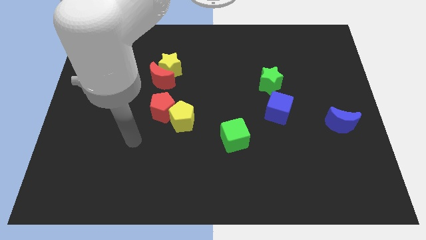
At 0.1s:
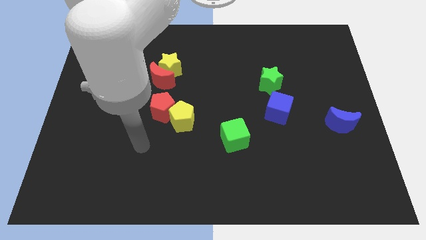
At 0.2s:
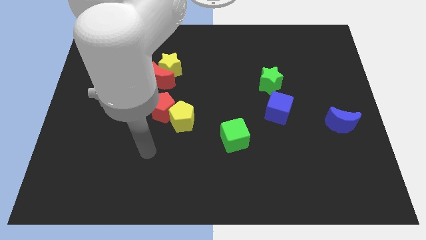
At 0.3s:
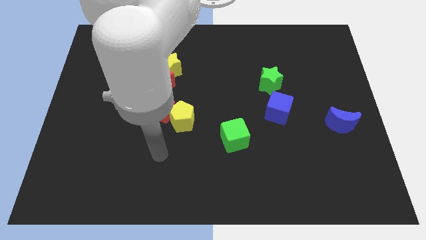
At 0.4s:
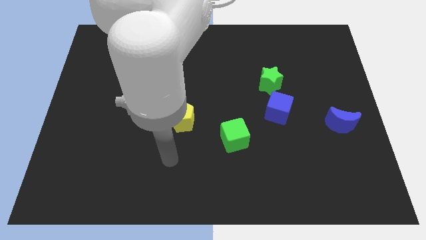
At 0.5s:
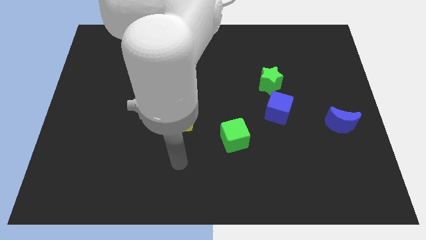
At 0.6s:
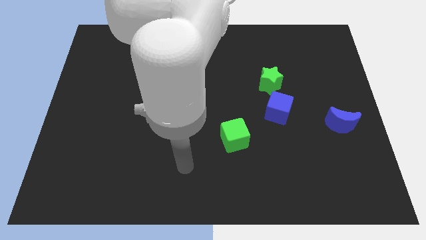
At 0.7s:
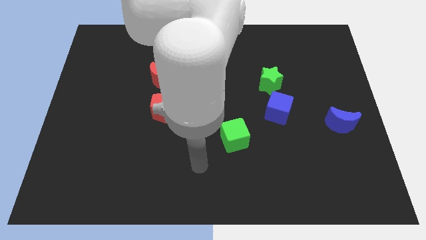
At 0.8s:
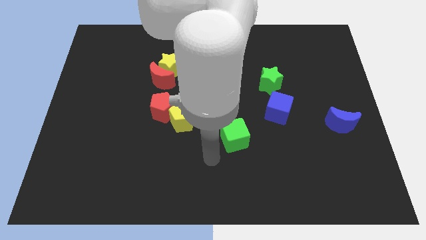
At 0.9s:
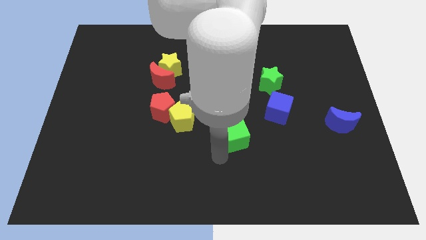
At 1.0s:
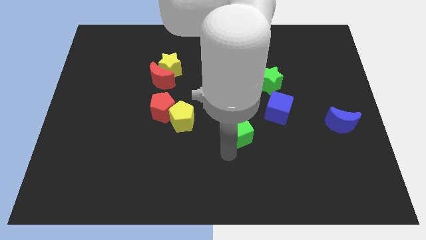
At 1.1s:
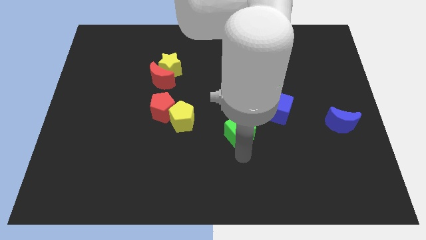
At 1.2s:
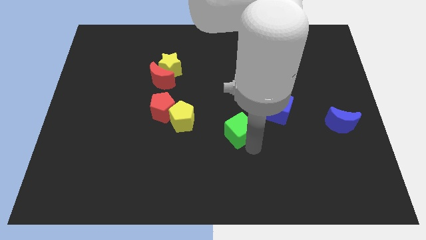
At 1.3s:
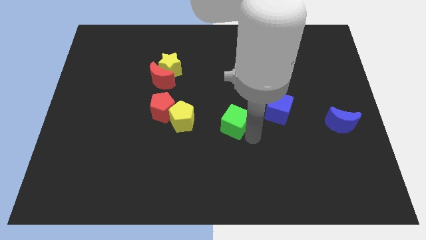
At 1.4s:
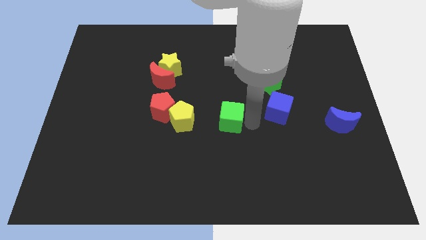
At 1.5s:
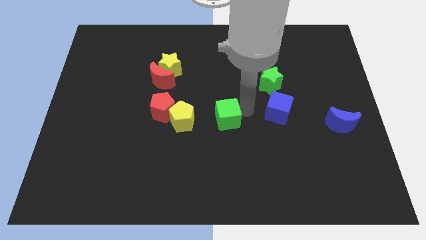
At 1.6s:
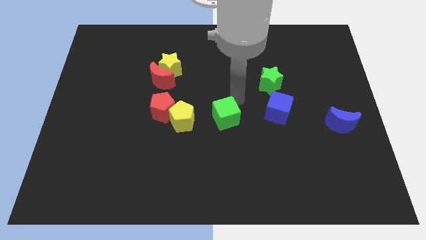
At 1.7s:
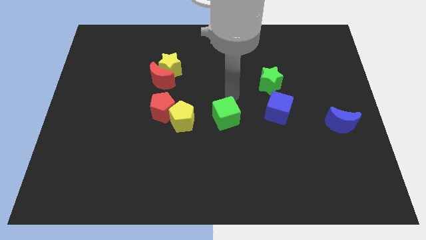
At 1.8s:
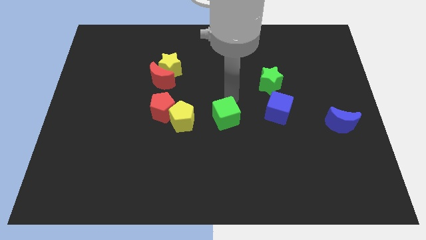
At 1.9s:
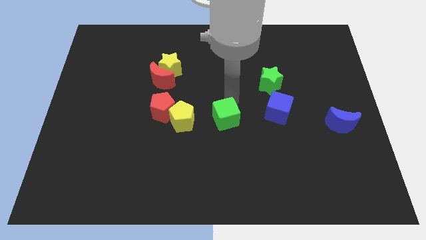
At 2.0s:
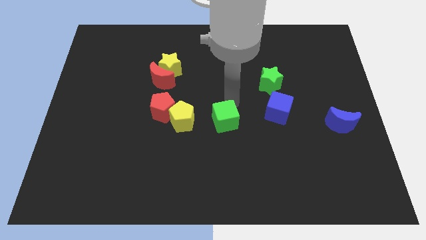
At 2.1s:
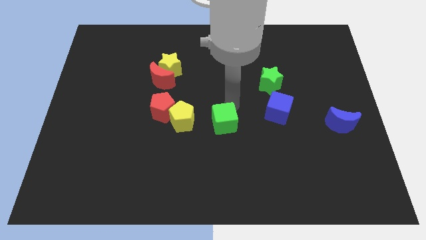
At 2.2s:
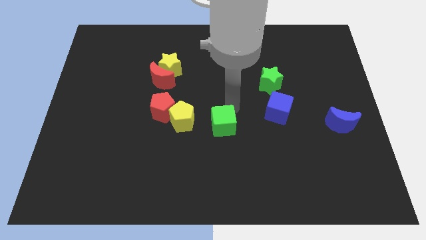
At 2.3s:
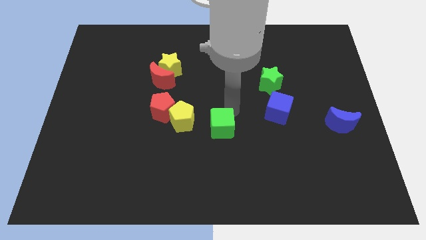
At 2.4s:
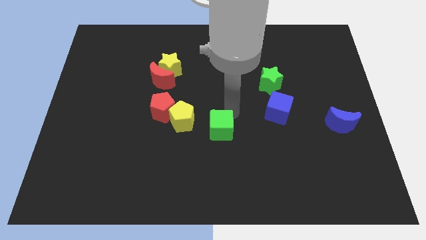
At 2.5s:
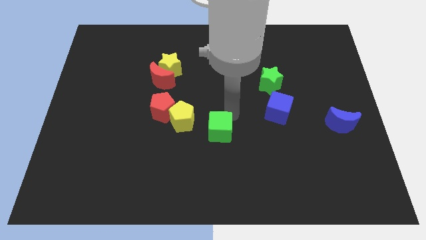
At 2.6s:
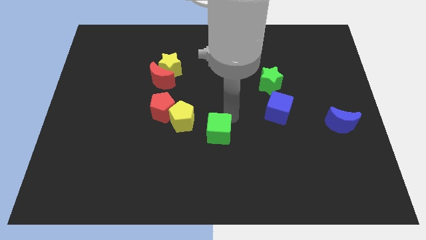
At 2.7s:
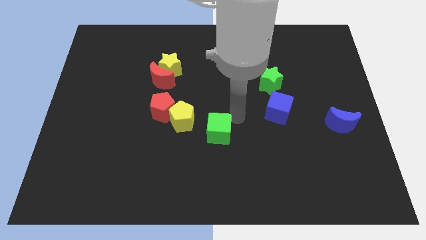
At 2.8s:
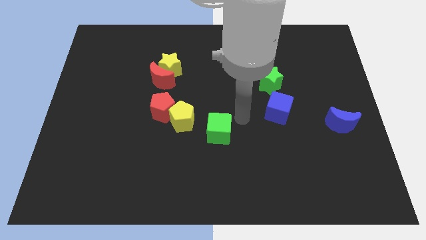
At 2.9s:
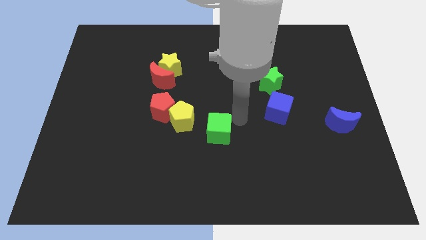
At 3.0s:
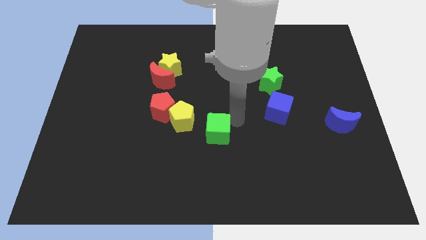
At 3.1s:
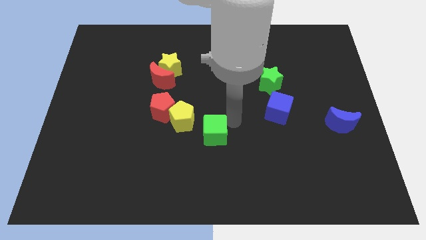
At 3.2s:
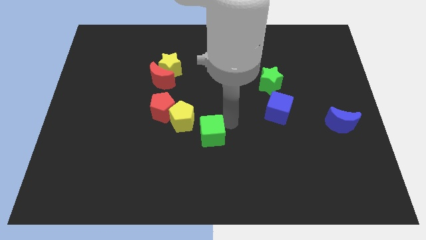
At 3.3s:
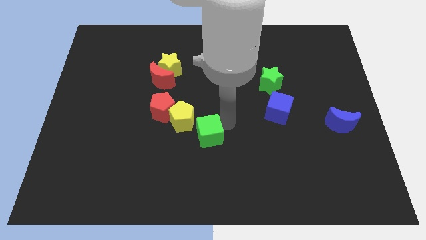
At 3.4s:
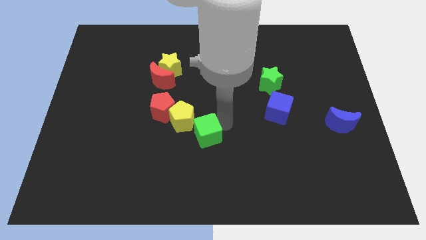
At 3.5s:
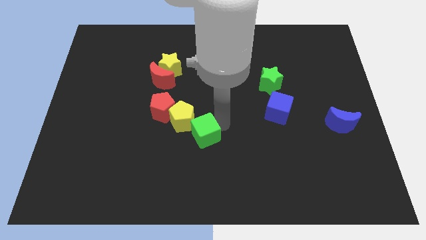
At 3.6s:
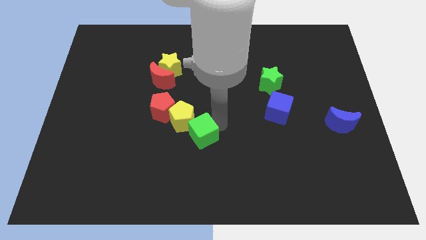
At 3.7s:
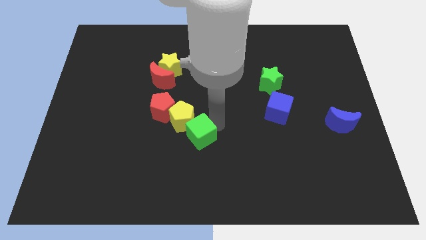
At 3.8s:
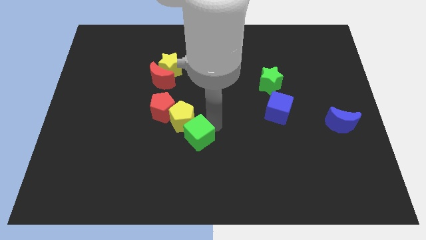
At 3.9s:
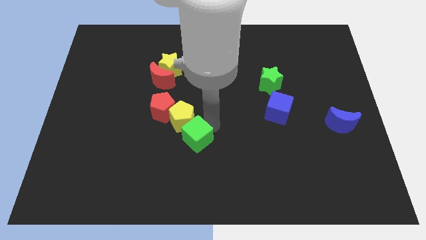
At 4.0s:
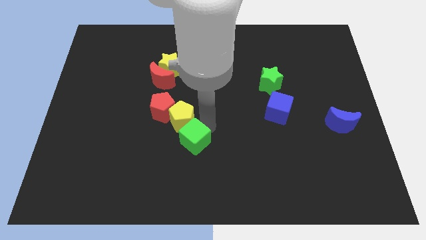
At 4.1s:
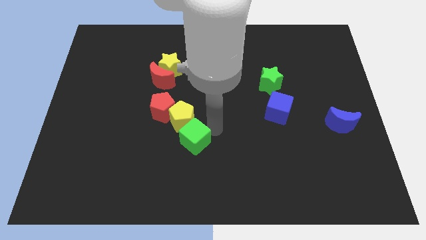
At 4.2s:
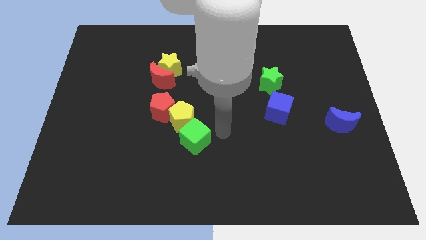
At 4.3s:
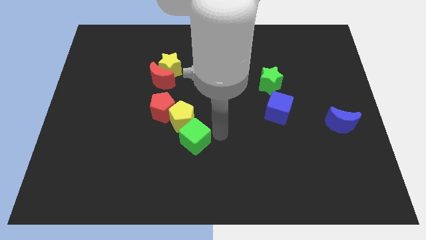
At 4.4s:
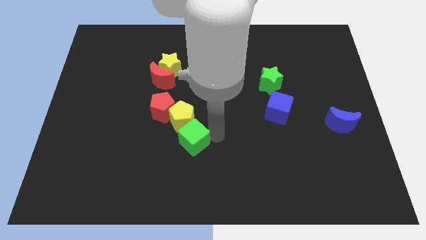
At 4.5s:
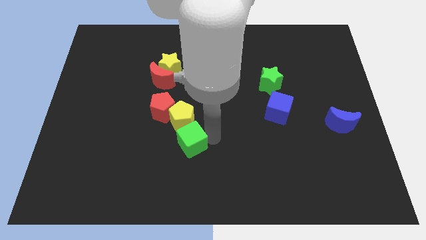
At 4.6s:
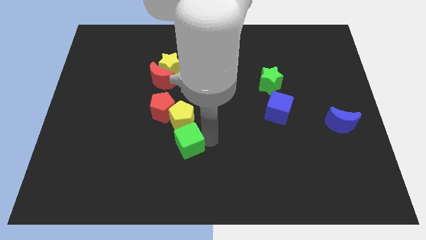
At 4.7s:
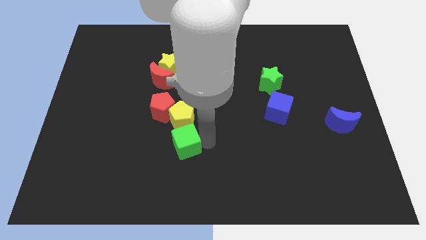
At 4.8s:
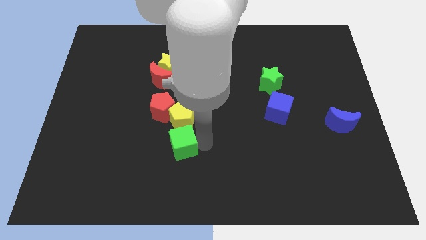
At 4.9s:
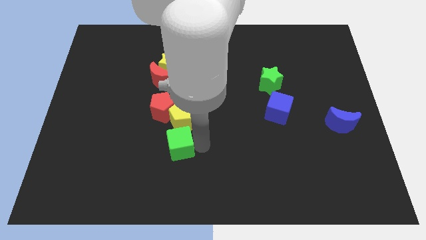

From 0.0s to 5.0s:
push the green cube to the bottom side of the red pentagon

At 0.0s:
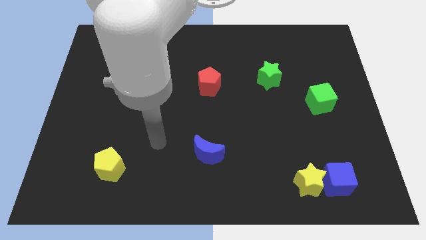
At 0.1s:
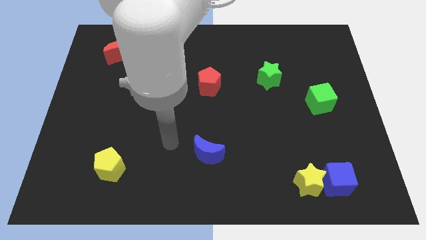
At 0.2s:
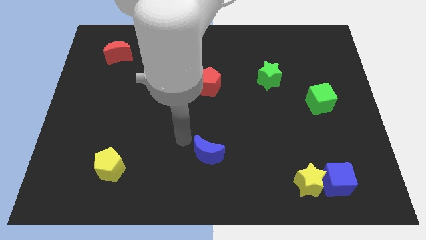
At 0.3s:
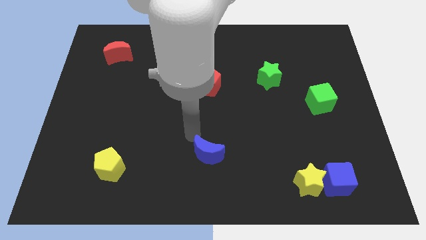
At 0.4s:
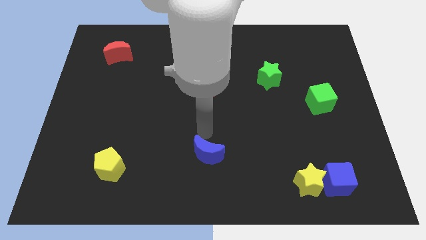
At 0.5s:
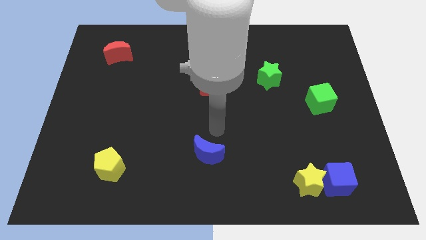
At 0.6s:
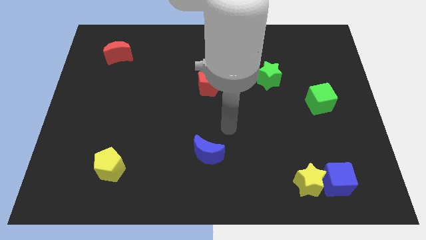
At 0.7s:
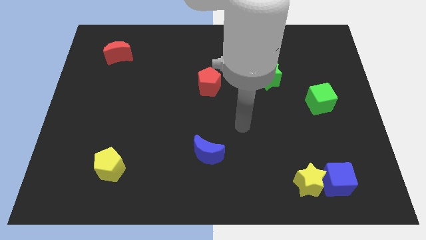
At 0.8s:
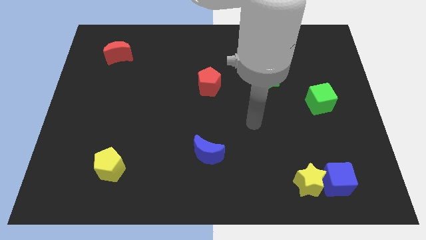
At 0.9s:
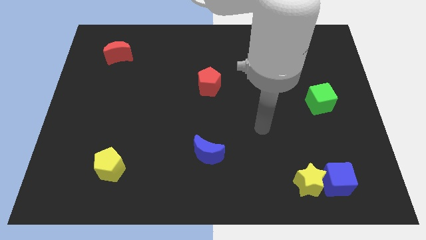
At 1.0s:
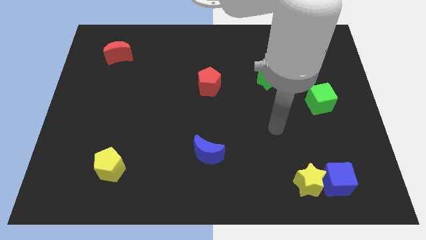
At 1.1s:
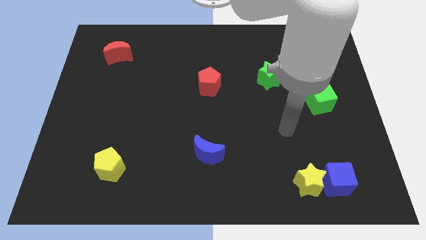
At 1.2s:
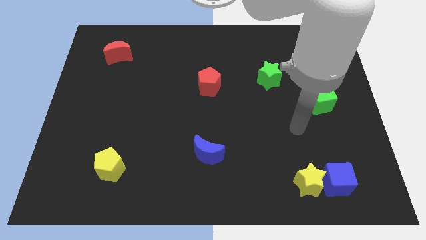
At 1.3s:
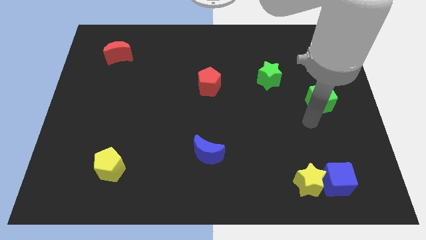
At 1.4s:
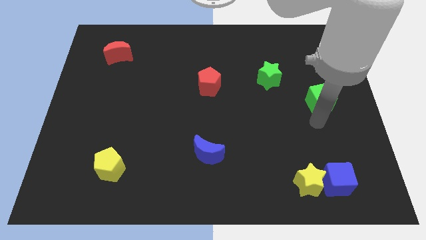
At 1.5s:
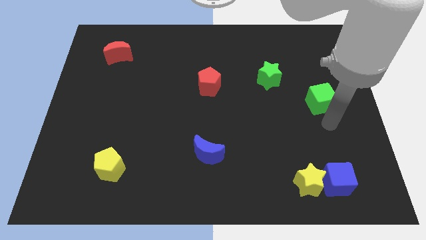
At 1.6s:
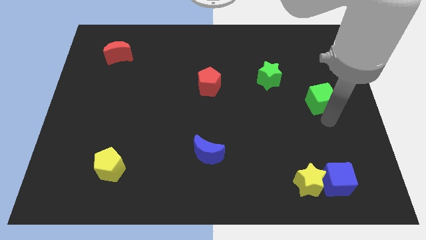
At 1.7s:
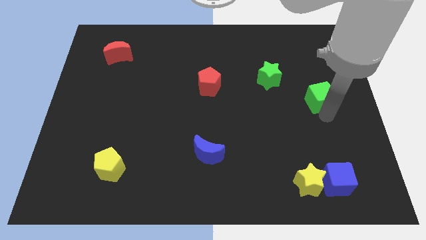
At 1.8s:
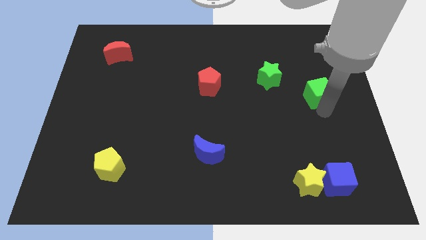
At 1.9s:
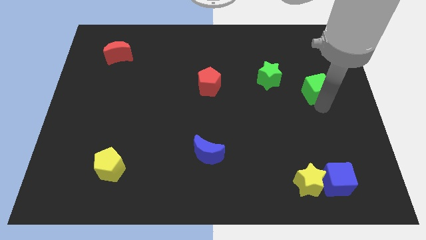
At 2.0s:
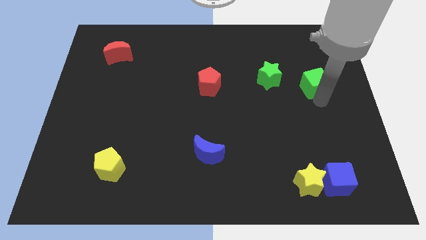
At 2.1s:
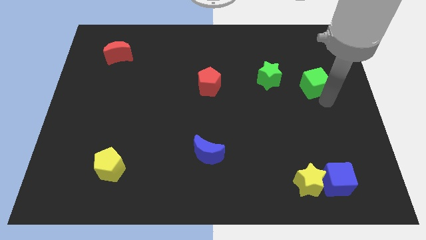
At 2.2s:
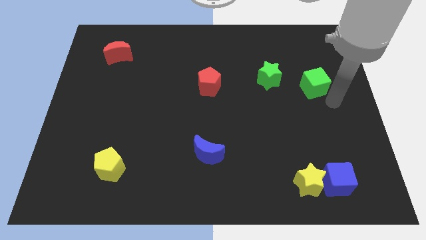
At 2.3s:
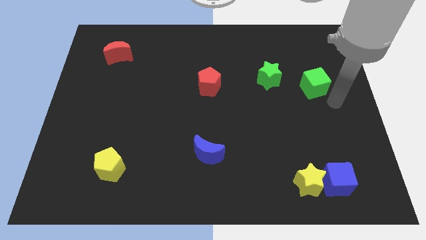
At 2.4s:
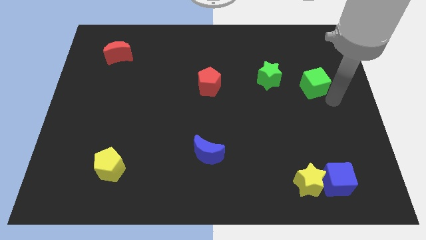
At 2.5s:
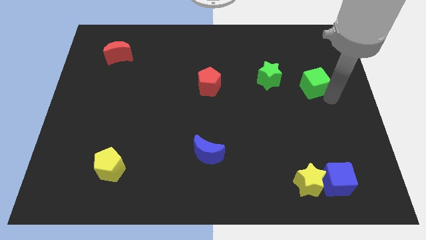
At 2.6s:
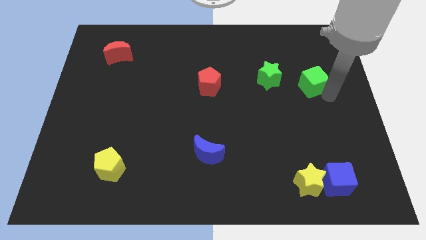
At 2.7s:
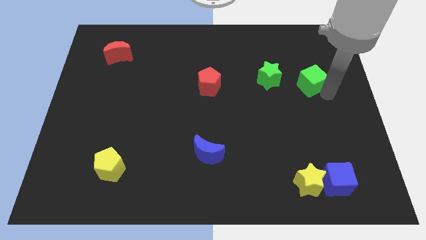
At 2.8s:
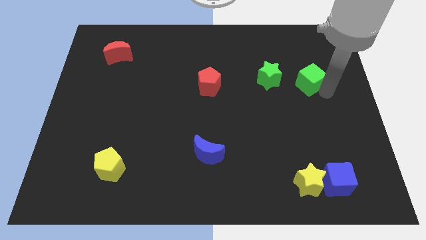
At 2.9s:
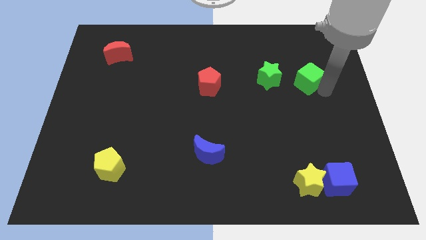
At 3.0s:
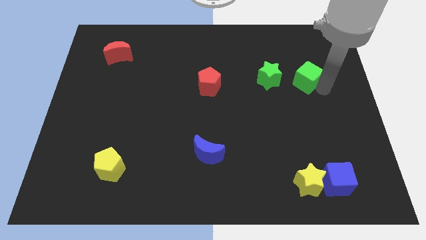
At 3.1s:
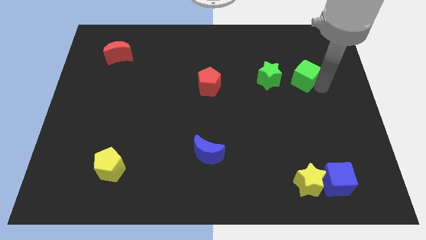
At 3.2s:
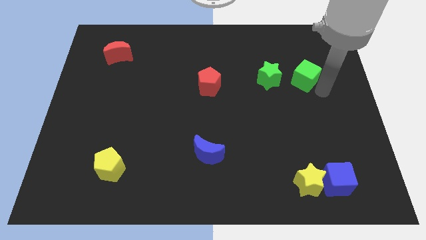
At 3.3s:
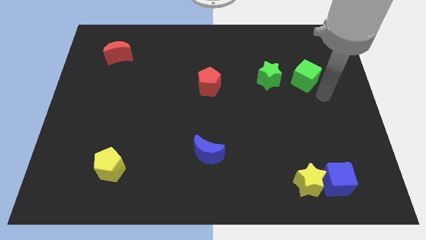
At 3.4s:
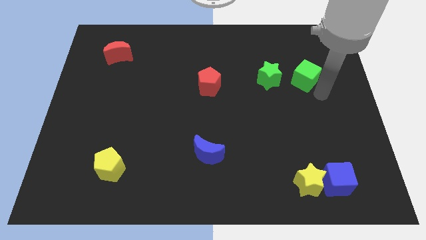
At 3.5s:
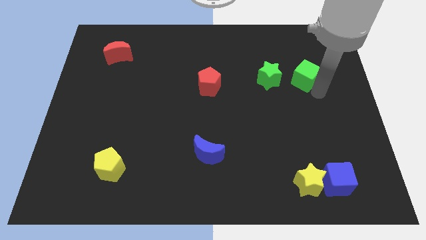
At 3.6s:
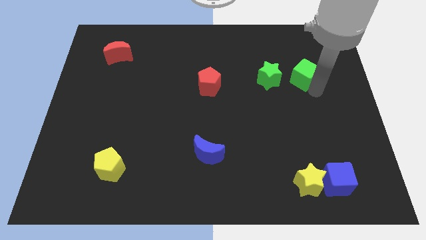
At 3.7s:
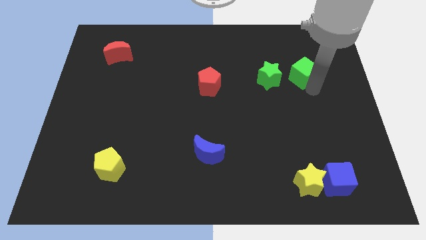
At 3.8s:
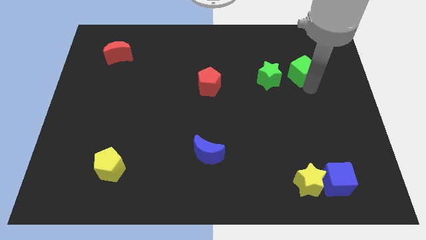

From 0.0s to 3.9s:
slide the green cube diagonally up and to the right of the green star
